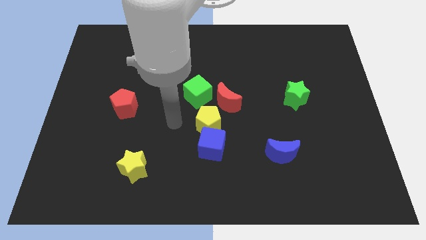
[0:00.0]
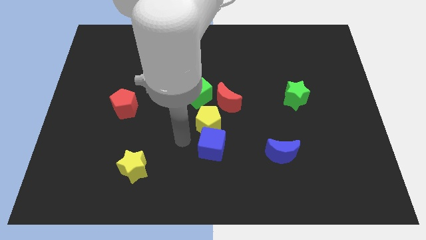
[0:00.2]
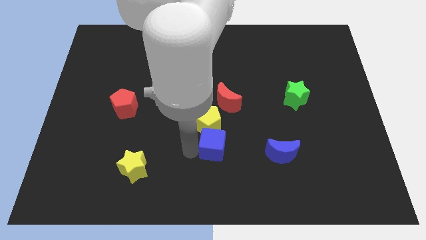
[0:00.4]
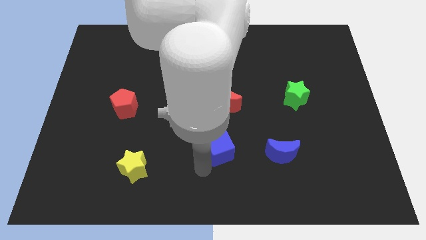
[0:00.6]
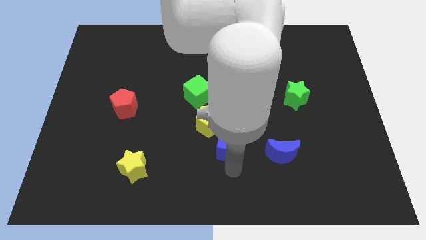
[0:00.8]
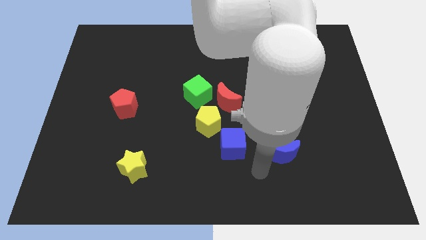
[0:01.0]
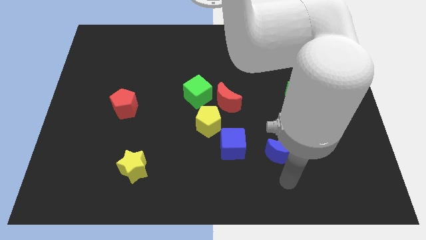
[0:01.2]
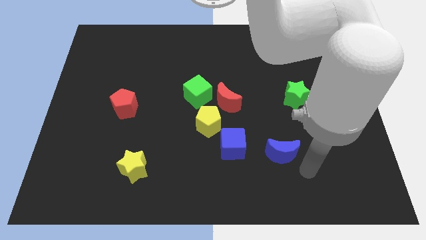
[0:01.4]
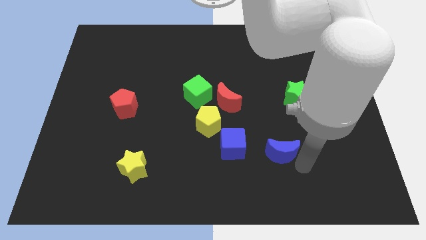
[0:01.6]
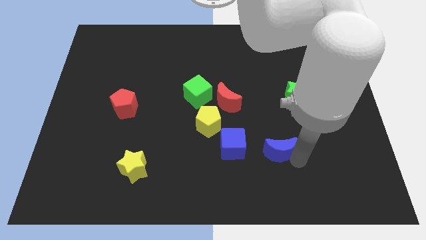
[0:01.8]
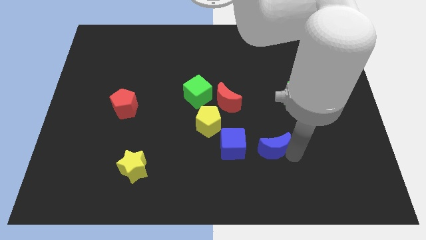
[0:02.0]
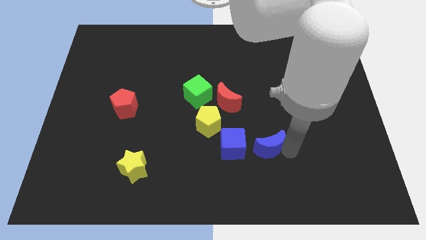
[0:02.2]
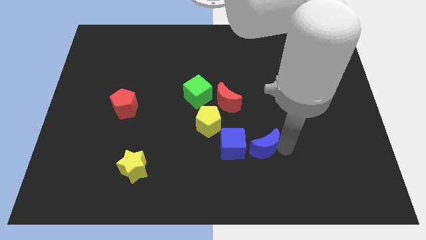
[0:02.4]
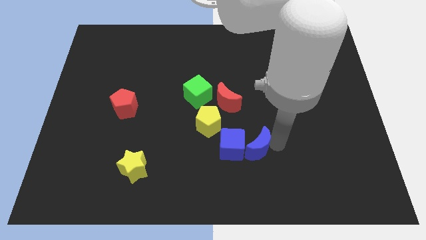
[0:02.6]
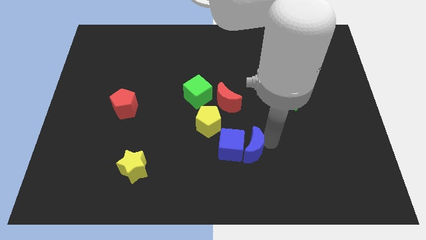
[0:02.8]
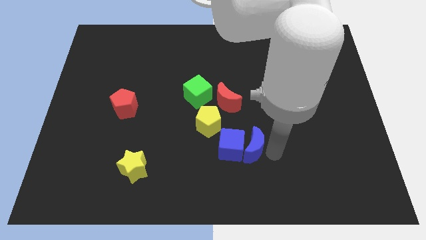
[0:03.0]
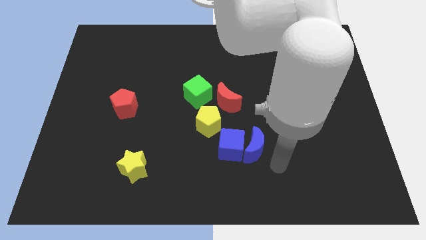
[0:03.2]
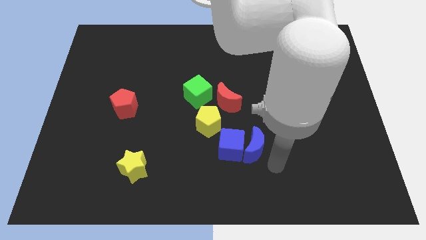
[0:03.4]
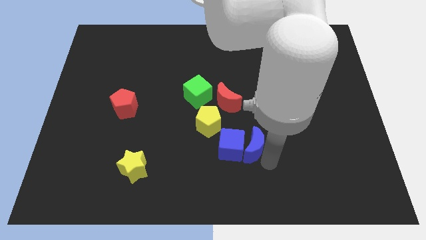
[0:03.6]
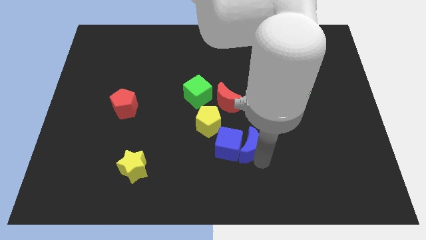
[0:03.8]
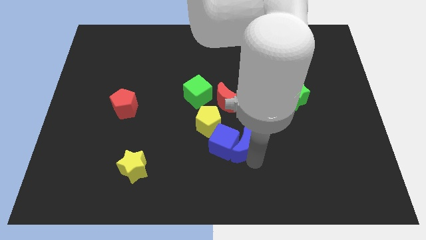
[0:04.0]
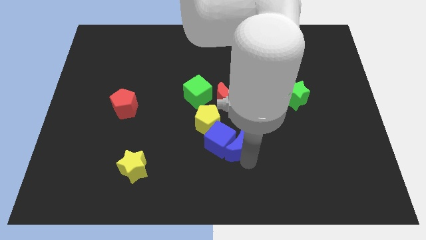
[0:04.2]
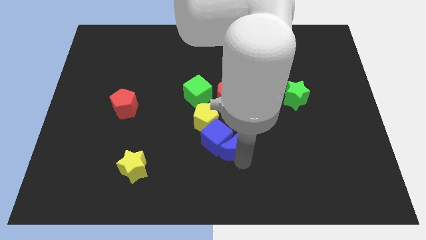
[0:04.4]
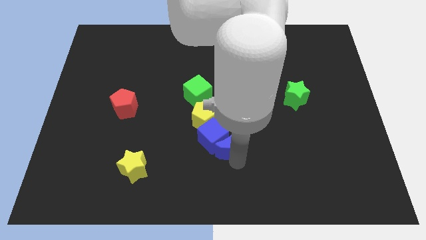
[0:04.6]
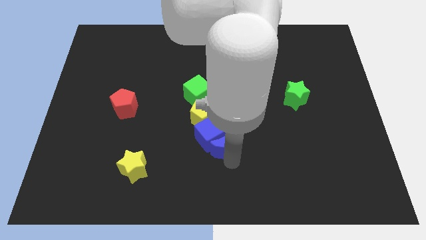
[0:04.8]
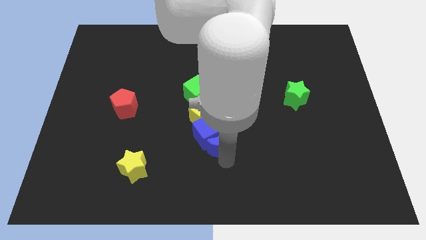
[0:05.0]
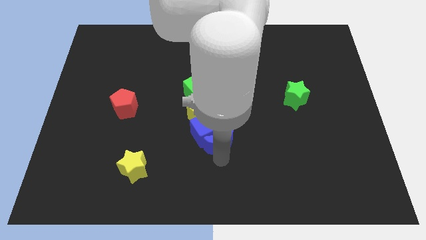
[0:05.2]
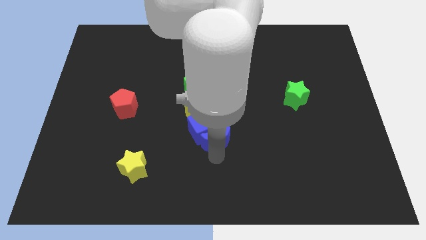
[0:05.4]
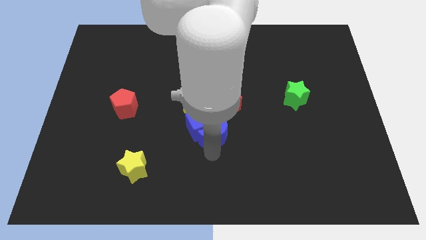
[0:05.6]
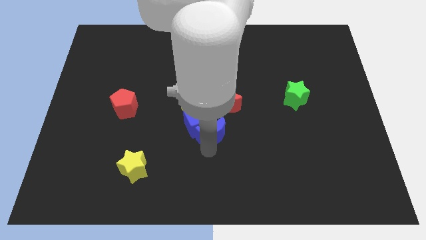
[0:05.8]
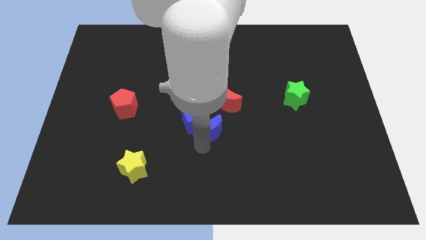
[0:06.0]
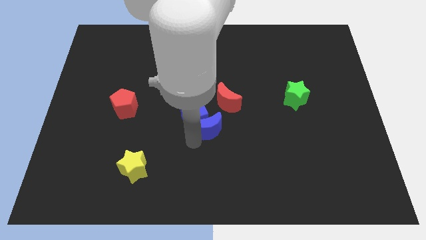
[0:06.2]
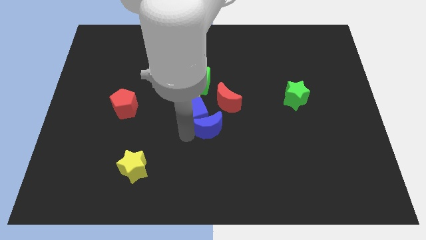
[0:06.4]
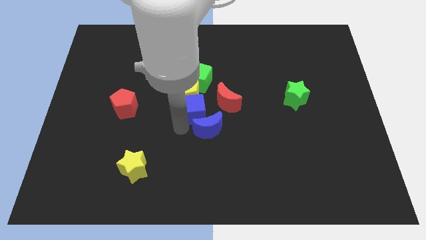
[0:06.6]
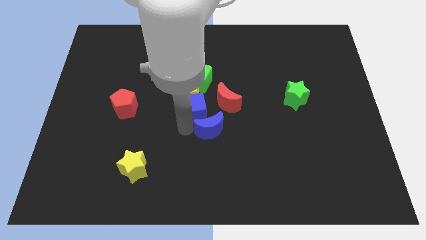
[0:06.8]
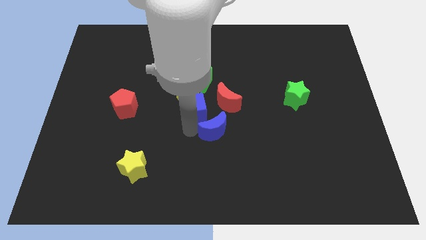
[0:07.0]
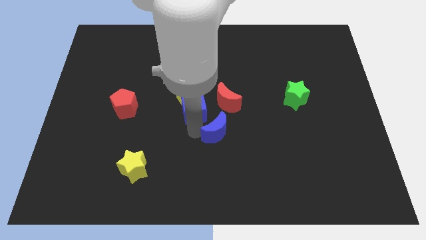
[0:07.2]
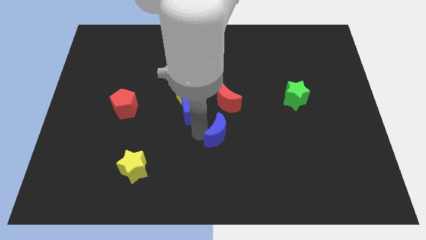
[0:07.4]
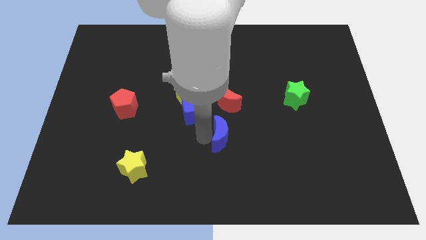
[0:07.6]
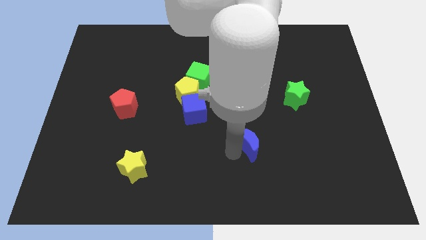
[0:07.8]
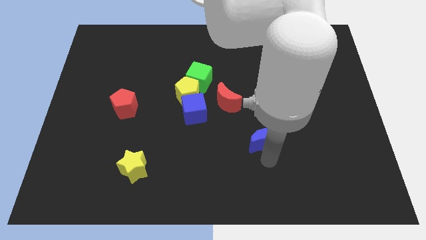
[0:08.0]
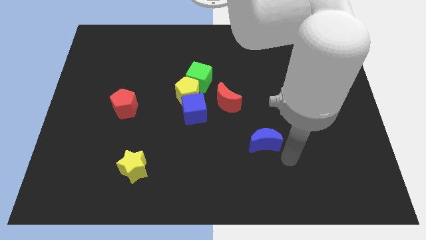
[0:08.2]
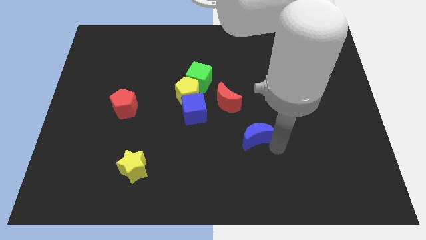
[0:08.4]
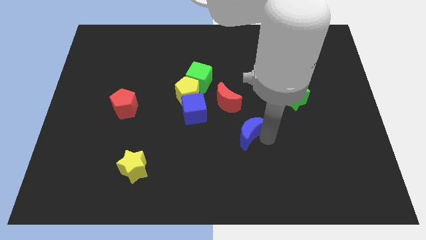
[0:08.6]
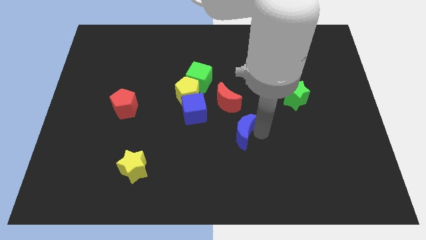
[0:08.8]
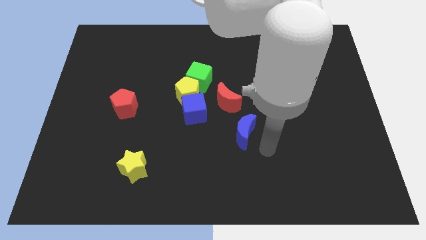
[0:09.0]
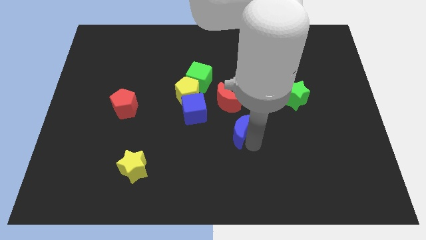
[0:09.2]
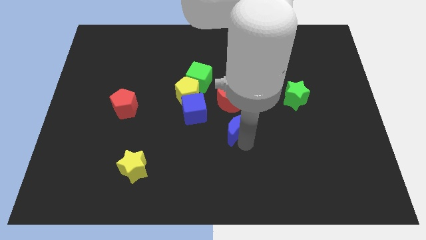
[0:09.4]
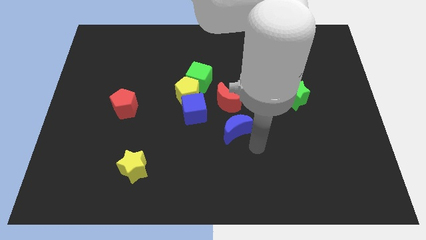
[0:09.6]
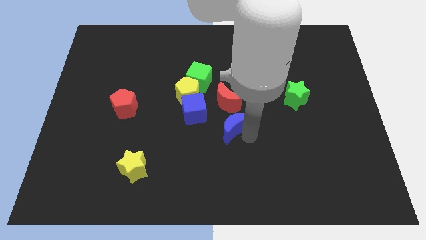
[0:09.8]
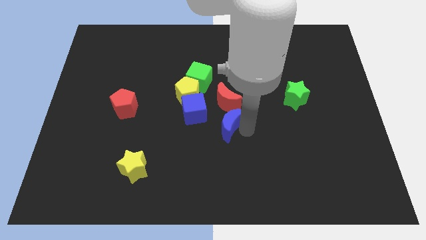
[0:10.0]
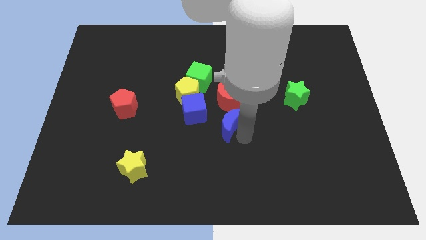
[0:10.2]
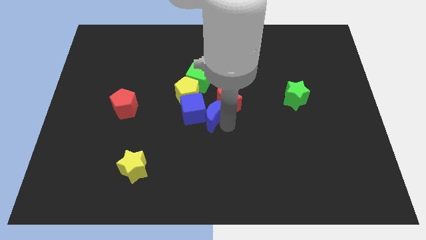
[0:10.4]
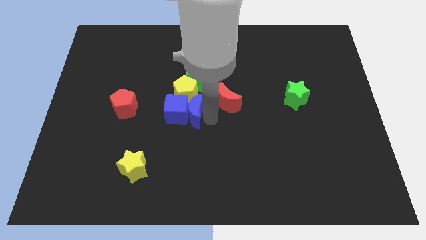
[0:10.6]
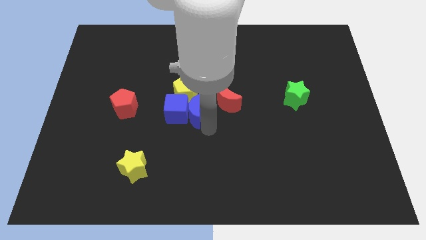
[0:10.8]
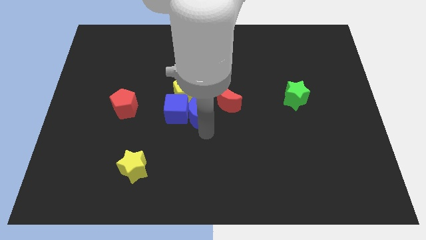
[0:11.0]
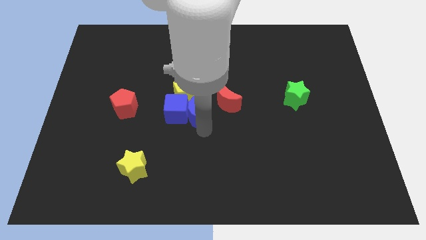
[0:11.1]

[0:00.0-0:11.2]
put the blue moon next to the yellow pentagon

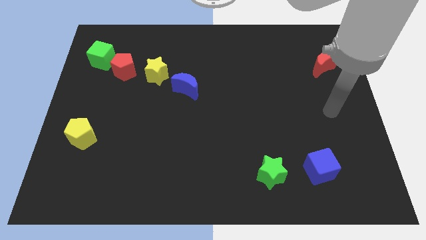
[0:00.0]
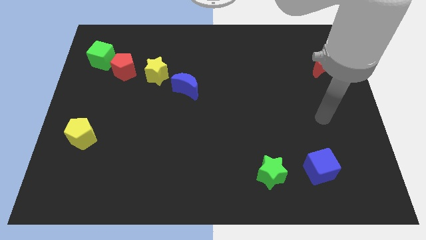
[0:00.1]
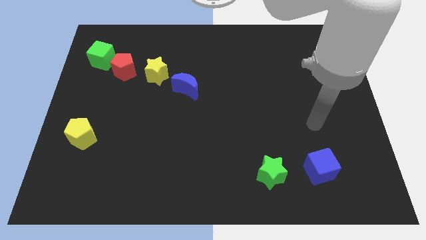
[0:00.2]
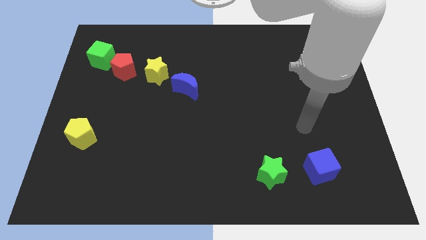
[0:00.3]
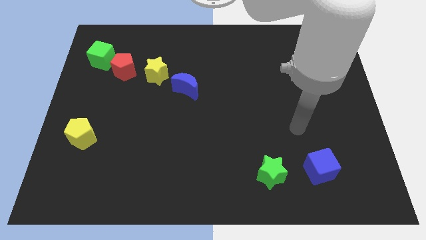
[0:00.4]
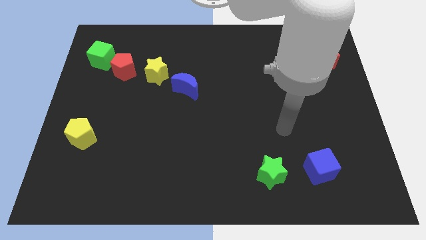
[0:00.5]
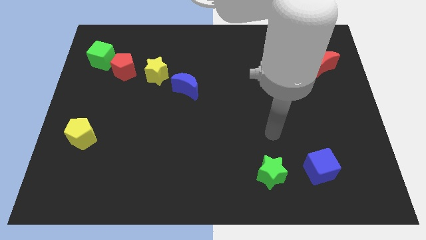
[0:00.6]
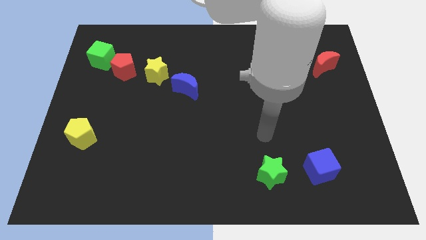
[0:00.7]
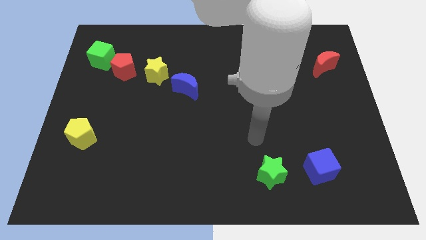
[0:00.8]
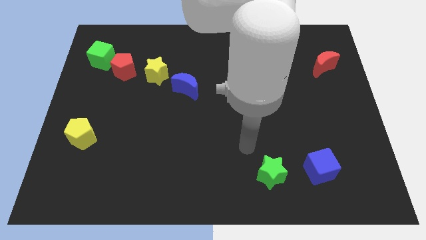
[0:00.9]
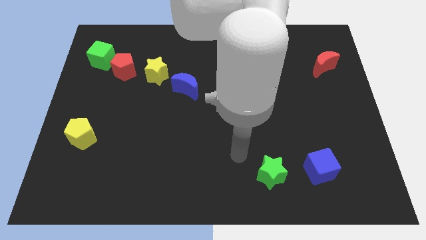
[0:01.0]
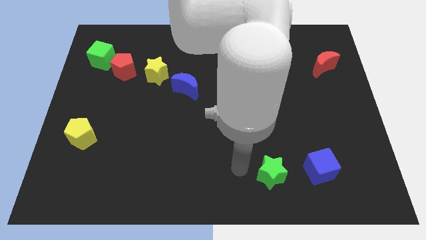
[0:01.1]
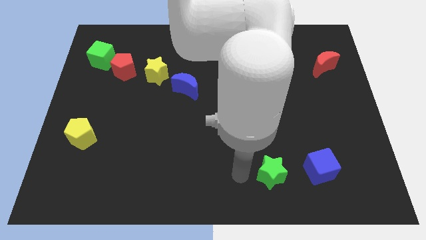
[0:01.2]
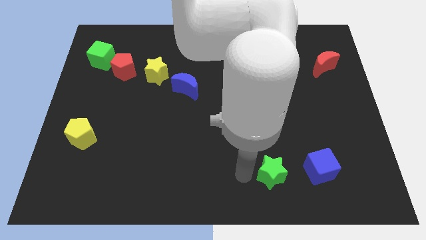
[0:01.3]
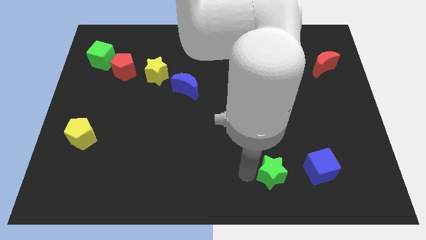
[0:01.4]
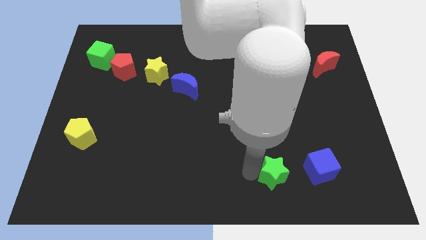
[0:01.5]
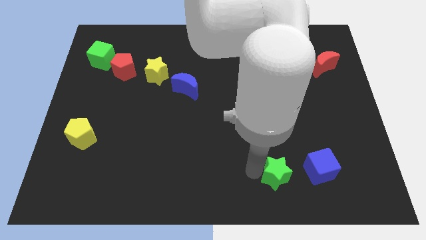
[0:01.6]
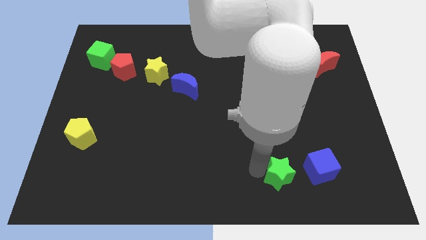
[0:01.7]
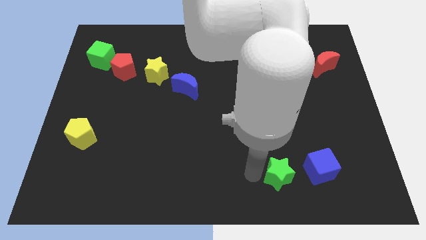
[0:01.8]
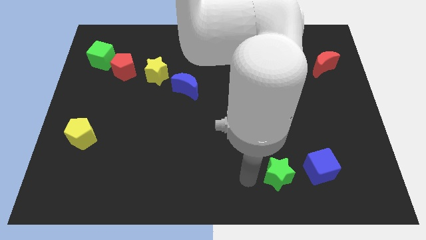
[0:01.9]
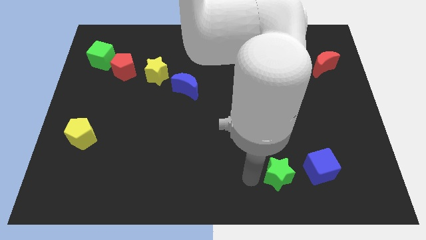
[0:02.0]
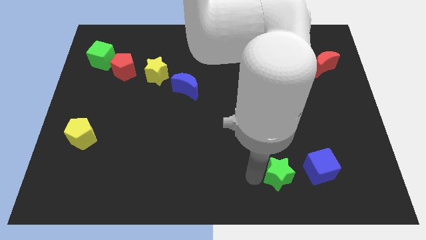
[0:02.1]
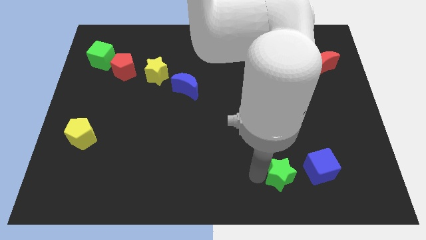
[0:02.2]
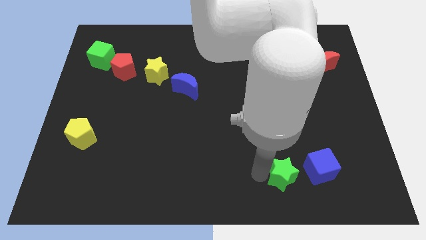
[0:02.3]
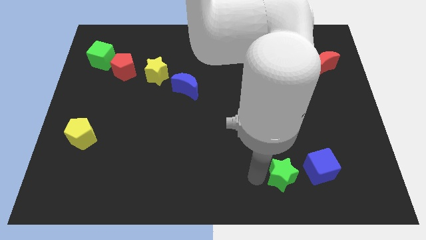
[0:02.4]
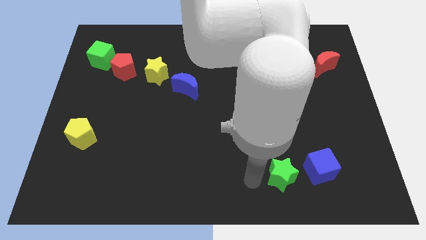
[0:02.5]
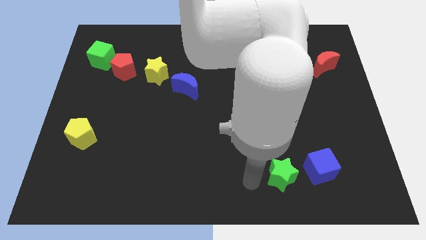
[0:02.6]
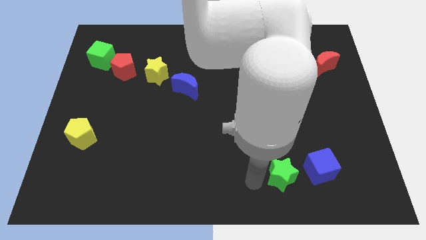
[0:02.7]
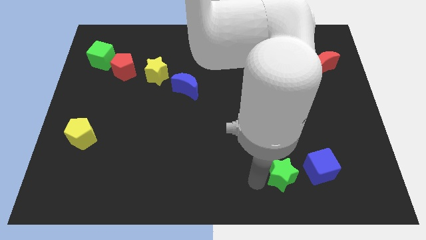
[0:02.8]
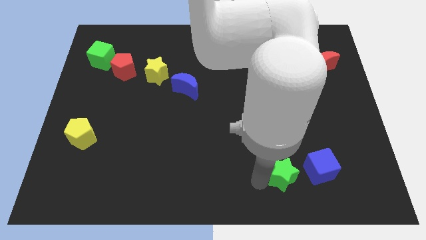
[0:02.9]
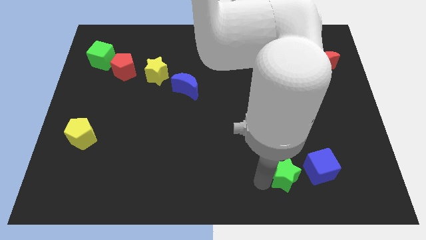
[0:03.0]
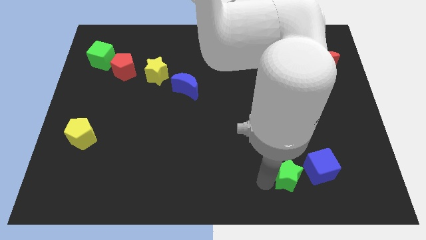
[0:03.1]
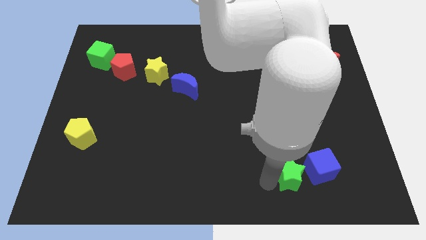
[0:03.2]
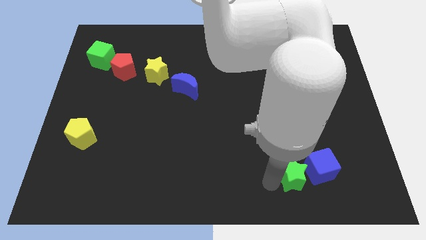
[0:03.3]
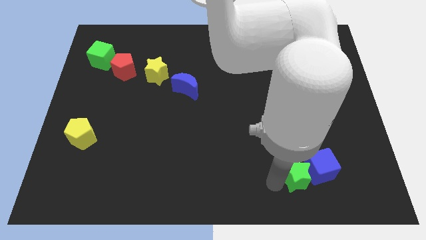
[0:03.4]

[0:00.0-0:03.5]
slide the green star close to the blue cube
